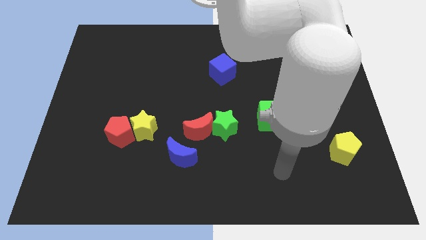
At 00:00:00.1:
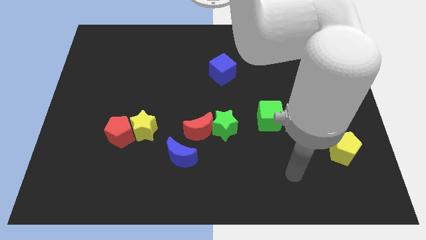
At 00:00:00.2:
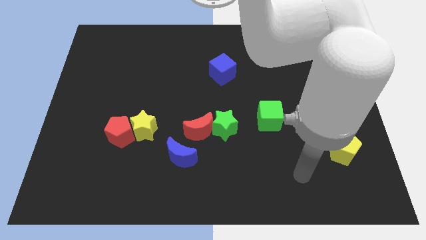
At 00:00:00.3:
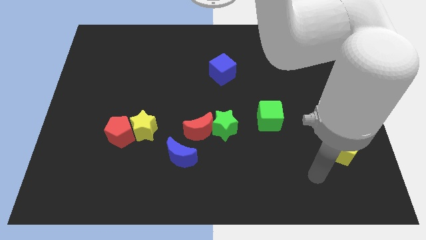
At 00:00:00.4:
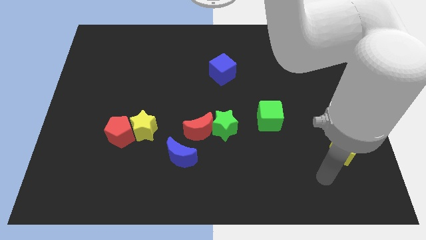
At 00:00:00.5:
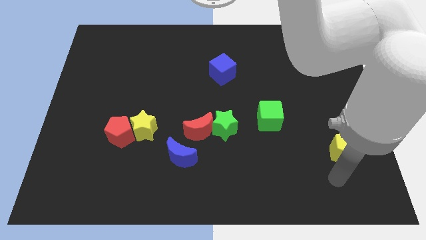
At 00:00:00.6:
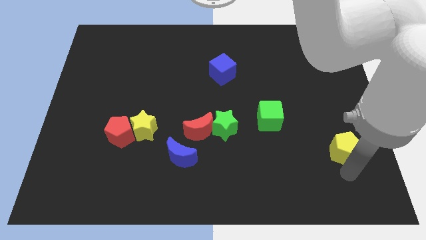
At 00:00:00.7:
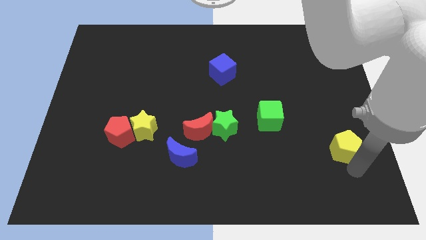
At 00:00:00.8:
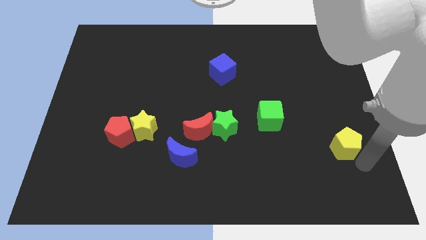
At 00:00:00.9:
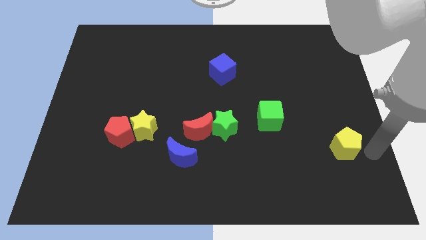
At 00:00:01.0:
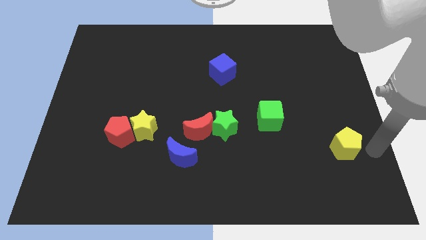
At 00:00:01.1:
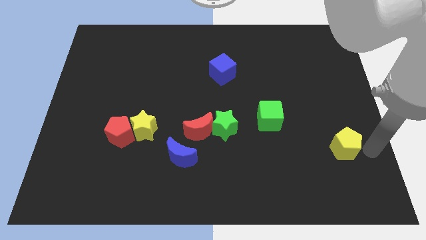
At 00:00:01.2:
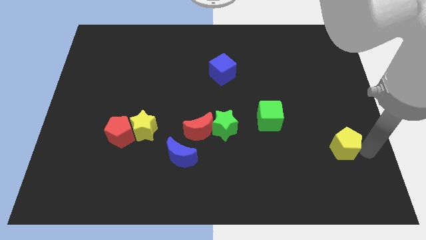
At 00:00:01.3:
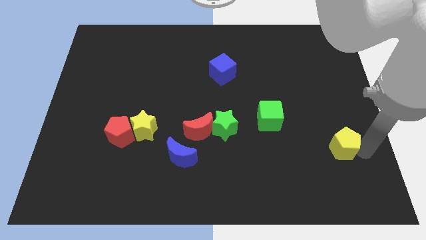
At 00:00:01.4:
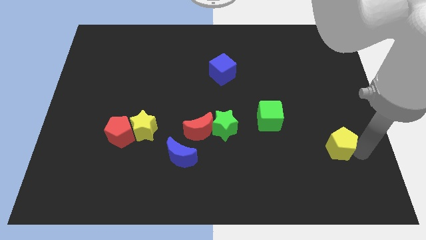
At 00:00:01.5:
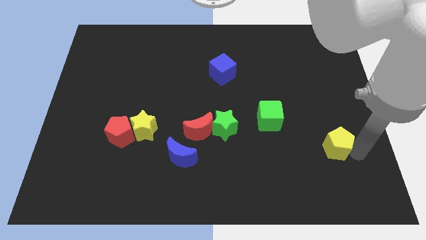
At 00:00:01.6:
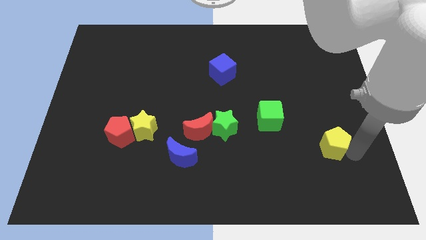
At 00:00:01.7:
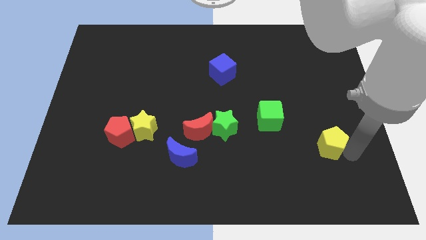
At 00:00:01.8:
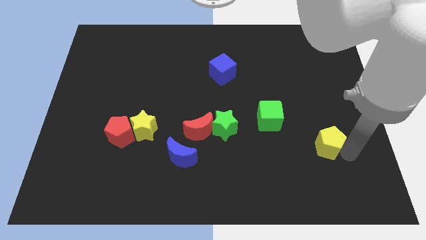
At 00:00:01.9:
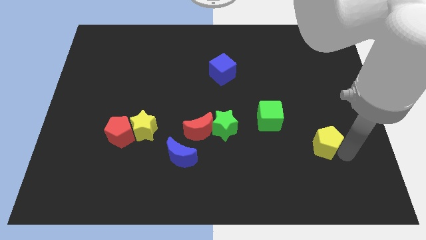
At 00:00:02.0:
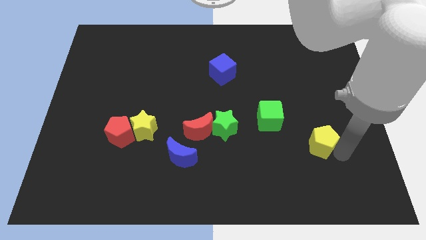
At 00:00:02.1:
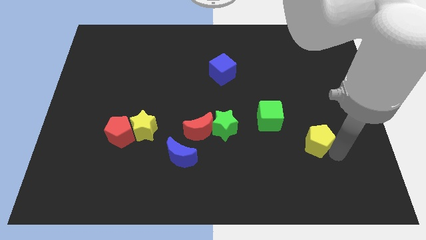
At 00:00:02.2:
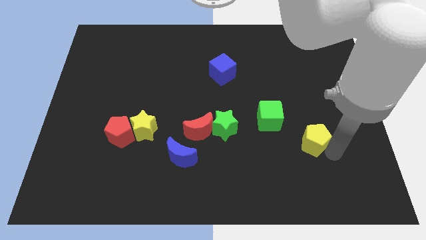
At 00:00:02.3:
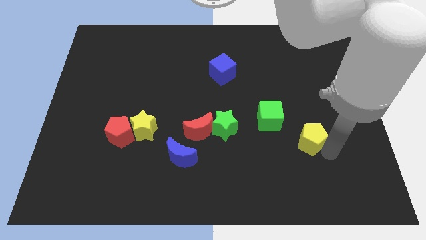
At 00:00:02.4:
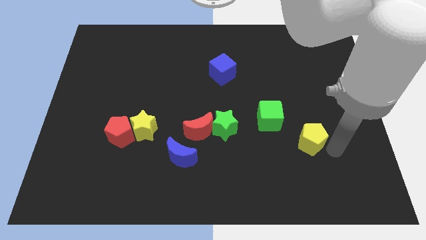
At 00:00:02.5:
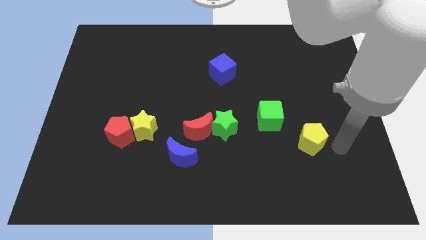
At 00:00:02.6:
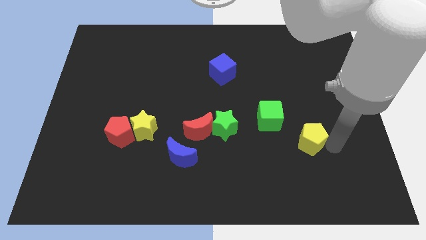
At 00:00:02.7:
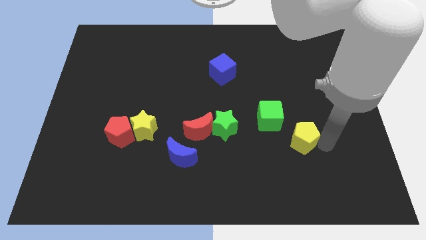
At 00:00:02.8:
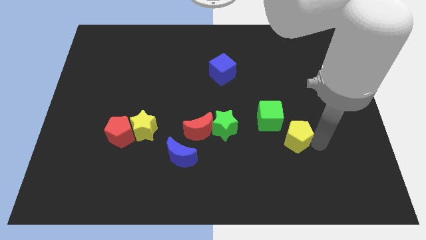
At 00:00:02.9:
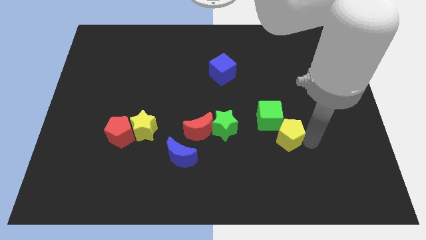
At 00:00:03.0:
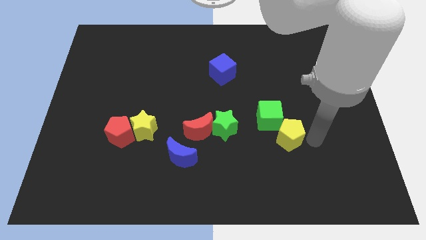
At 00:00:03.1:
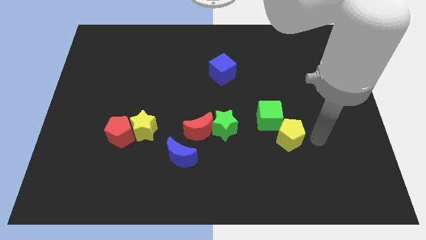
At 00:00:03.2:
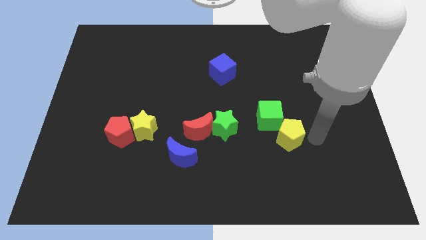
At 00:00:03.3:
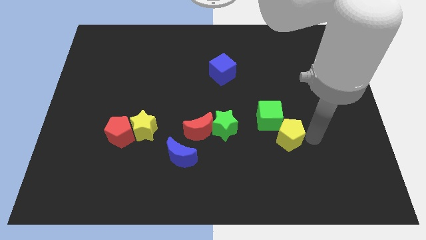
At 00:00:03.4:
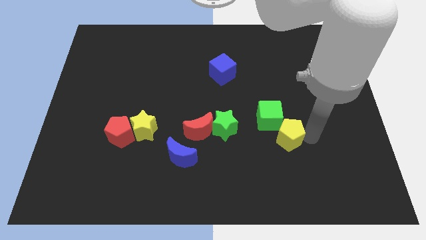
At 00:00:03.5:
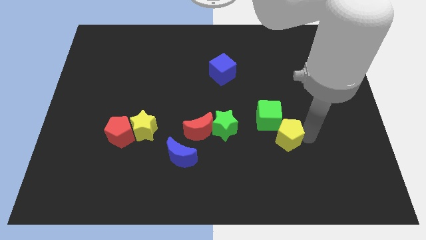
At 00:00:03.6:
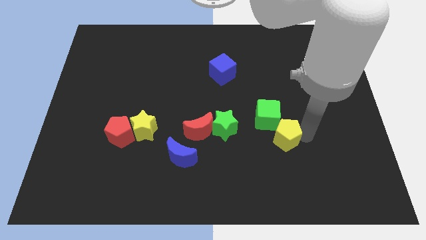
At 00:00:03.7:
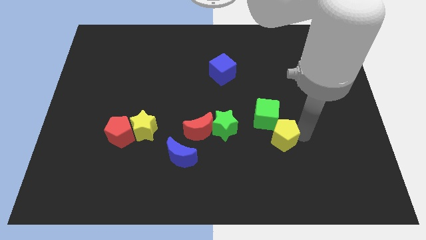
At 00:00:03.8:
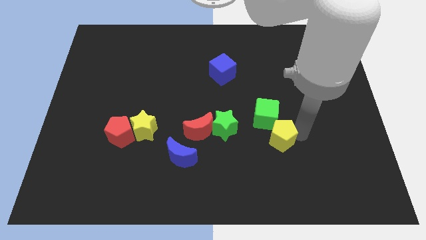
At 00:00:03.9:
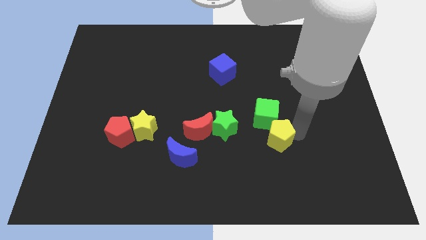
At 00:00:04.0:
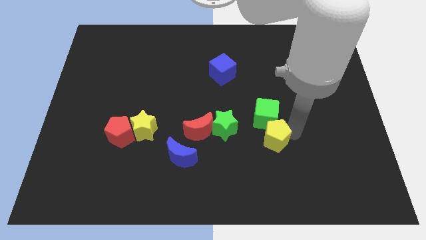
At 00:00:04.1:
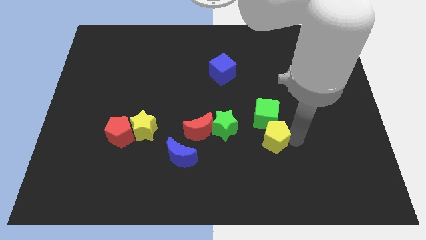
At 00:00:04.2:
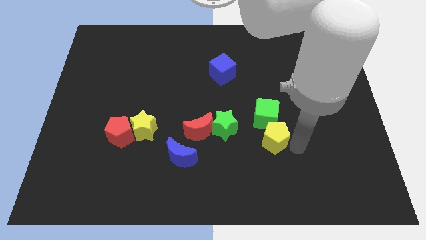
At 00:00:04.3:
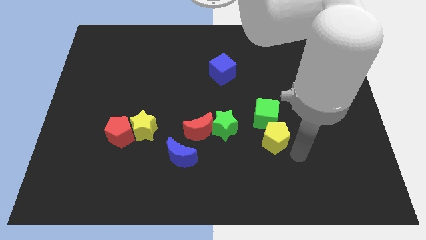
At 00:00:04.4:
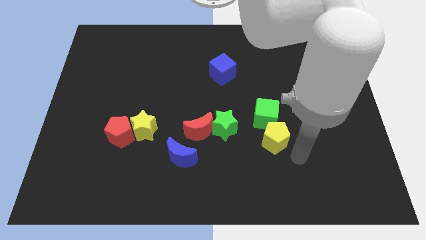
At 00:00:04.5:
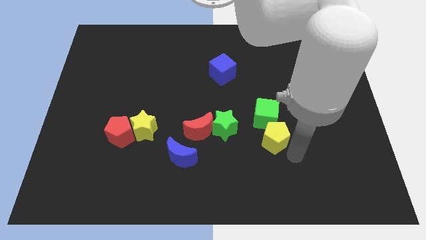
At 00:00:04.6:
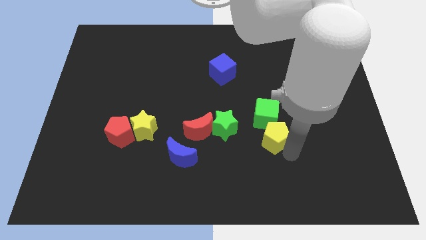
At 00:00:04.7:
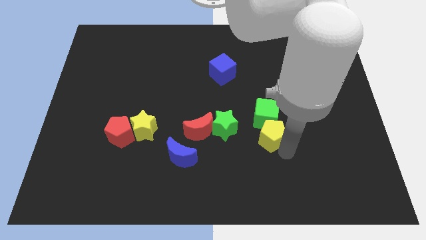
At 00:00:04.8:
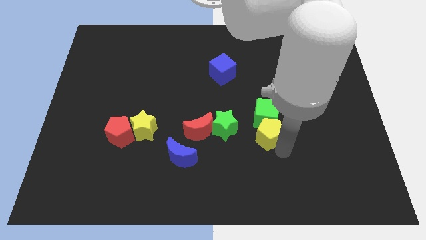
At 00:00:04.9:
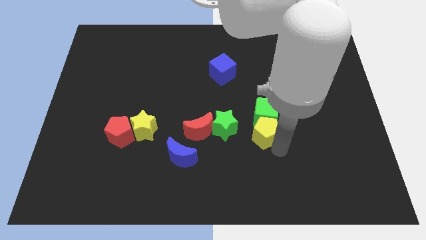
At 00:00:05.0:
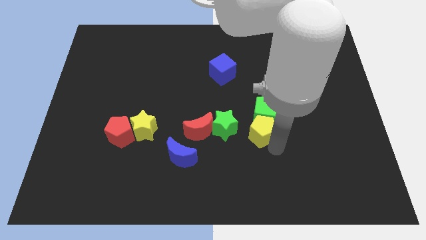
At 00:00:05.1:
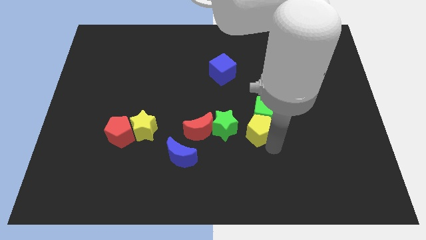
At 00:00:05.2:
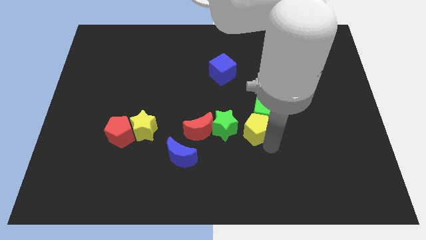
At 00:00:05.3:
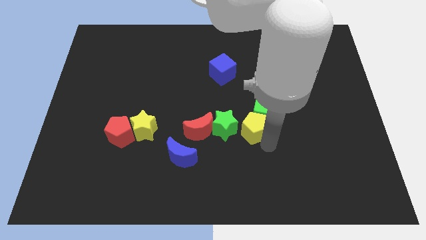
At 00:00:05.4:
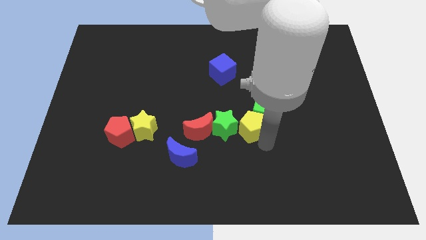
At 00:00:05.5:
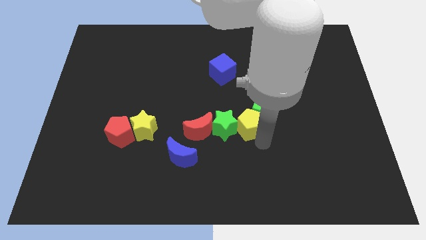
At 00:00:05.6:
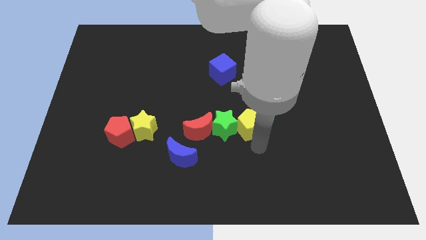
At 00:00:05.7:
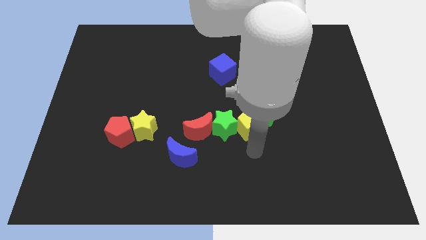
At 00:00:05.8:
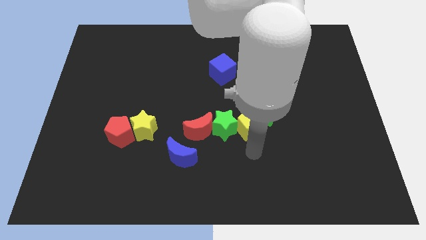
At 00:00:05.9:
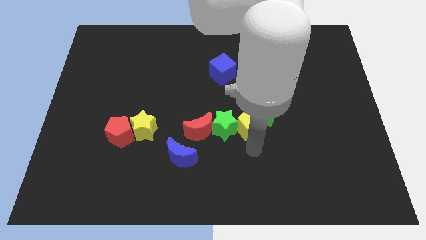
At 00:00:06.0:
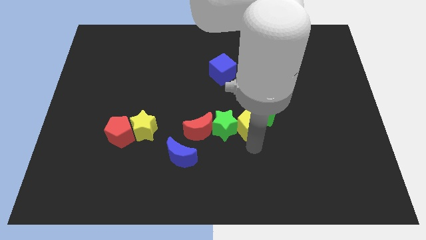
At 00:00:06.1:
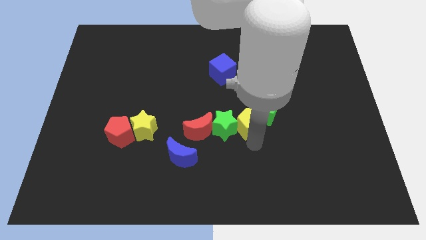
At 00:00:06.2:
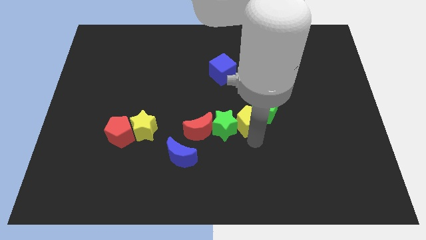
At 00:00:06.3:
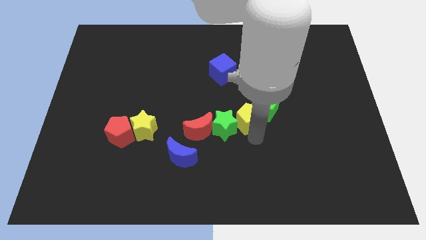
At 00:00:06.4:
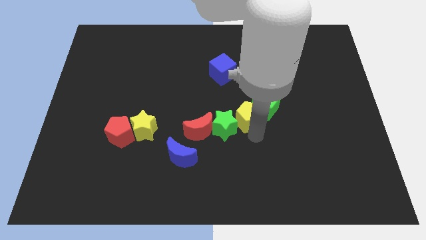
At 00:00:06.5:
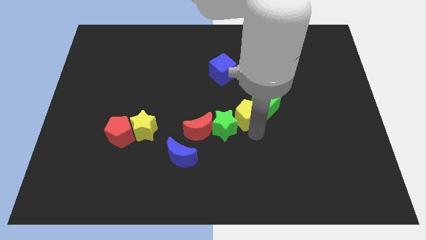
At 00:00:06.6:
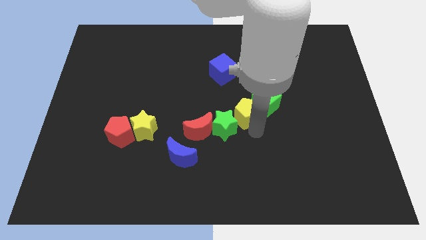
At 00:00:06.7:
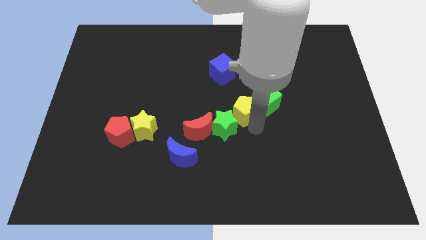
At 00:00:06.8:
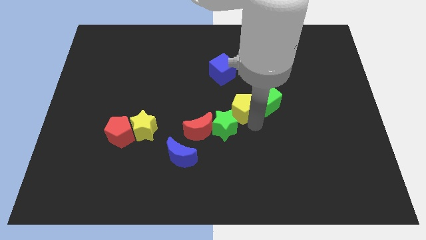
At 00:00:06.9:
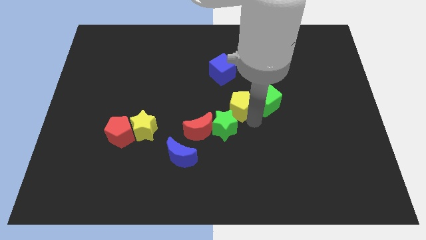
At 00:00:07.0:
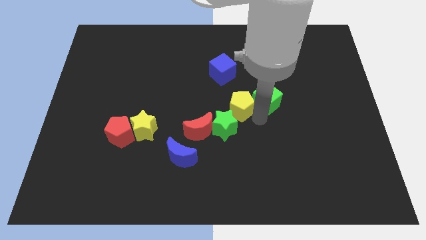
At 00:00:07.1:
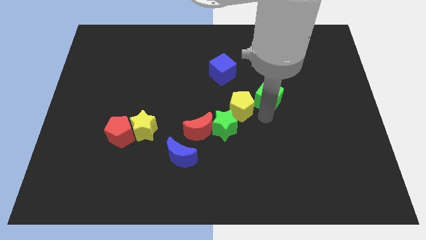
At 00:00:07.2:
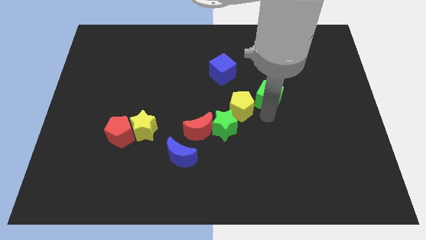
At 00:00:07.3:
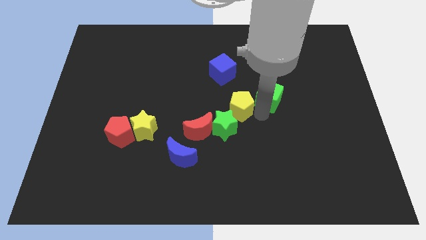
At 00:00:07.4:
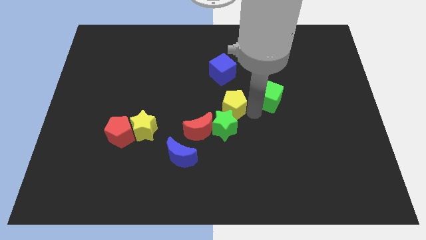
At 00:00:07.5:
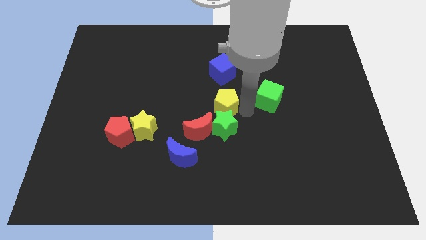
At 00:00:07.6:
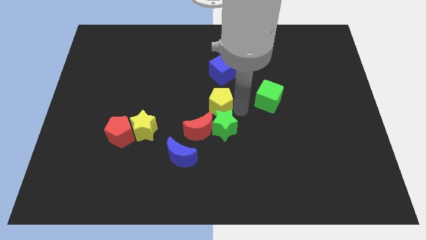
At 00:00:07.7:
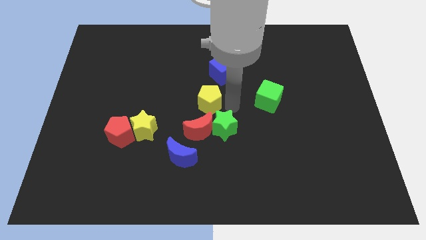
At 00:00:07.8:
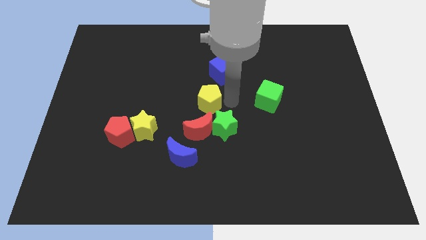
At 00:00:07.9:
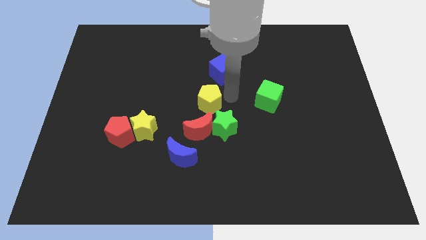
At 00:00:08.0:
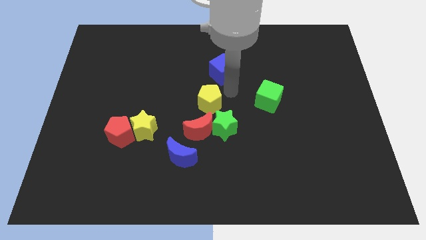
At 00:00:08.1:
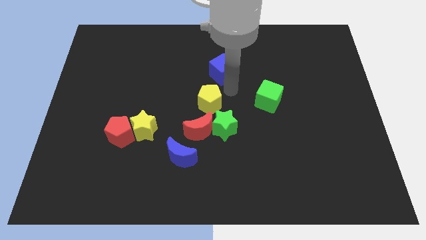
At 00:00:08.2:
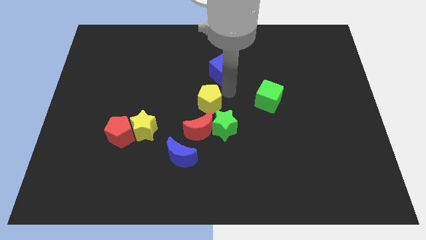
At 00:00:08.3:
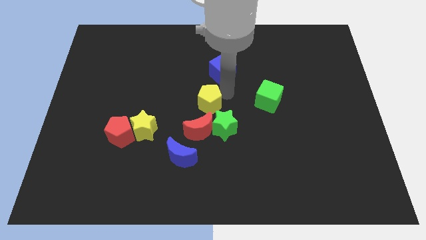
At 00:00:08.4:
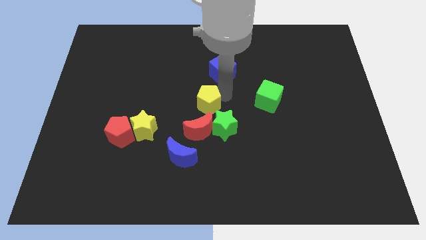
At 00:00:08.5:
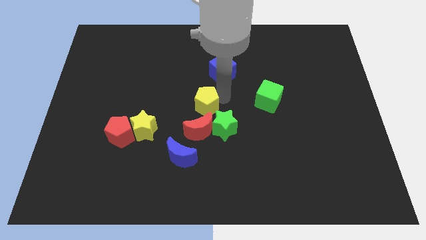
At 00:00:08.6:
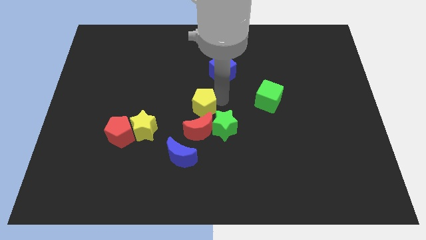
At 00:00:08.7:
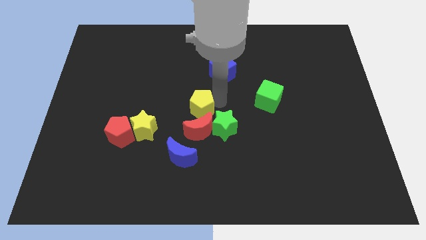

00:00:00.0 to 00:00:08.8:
move the yellow pentagon to the top of the blue moon
